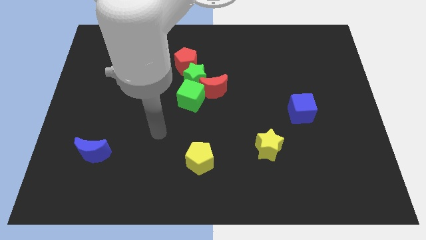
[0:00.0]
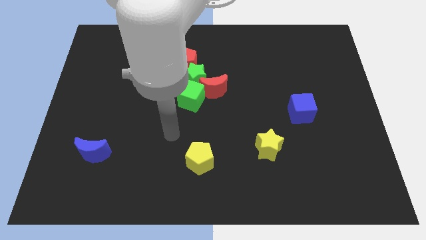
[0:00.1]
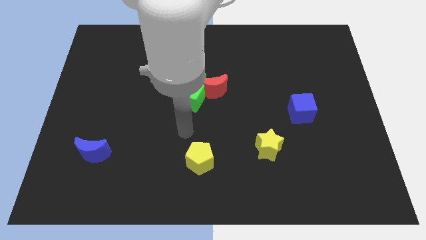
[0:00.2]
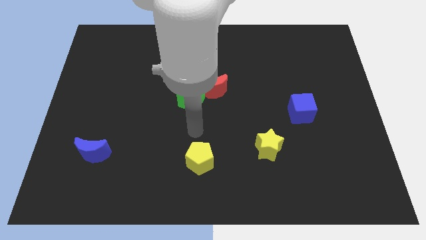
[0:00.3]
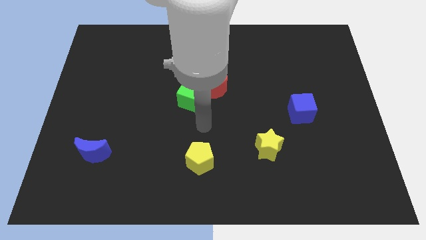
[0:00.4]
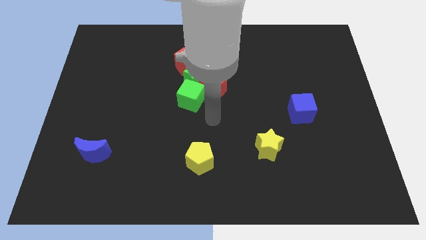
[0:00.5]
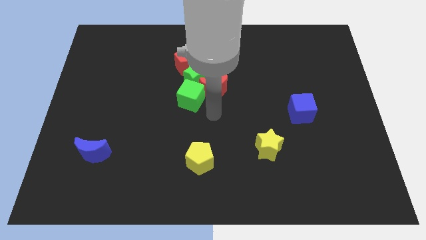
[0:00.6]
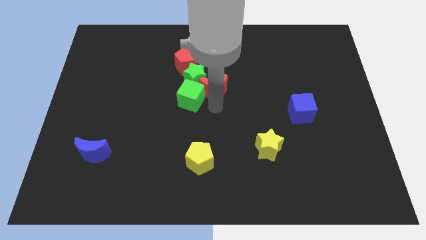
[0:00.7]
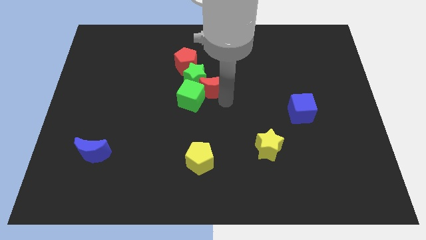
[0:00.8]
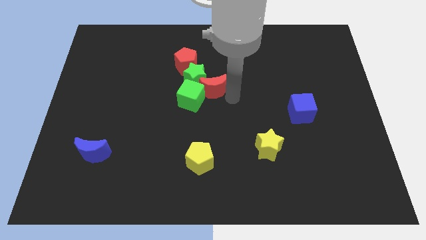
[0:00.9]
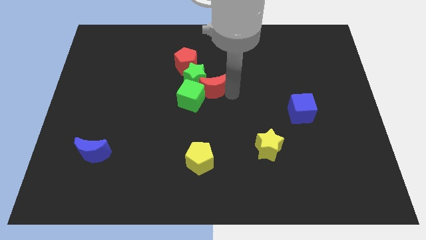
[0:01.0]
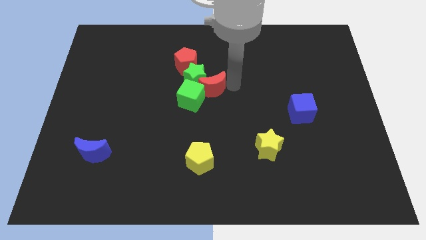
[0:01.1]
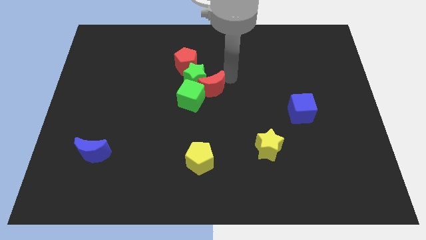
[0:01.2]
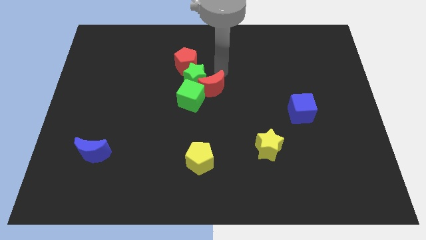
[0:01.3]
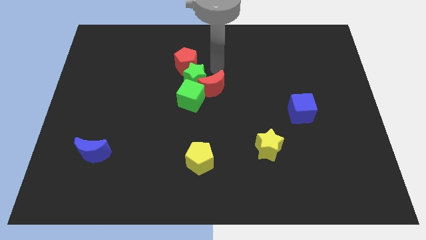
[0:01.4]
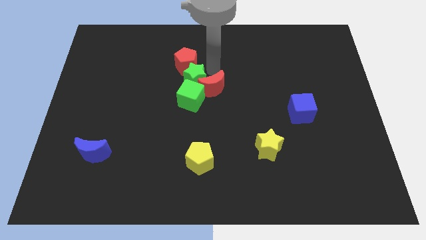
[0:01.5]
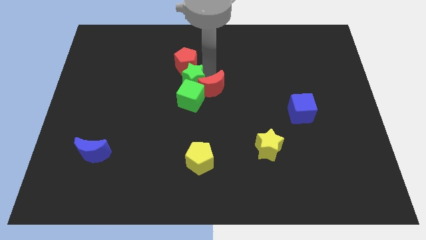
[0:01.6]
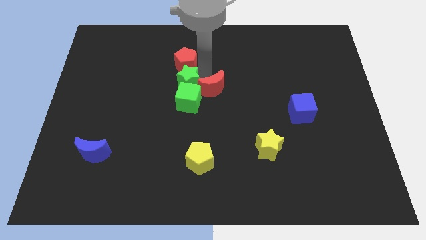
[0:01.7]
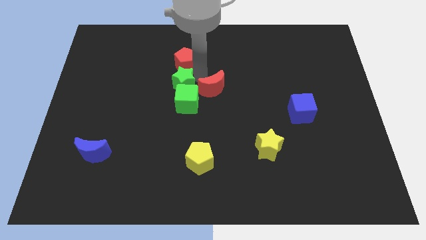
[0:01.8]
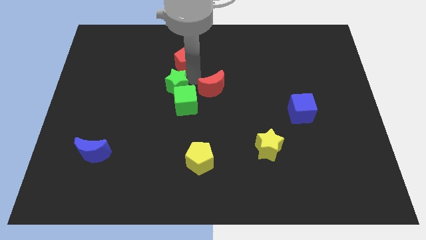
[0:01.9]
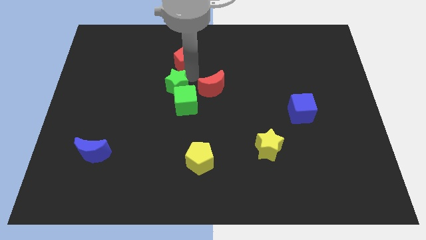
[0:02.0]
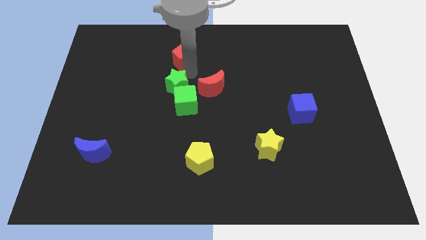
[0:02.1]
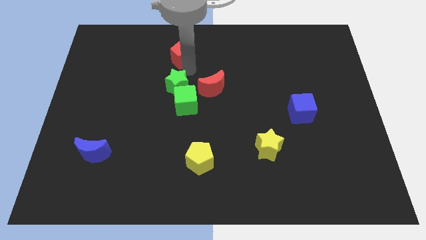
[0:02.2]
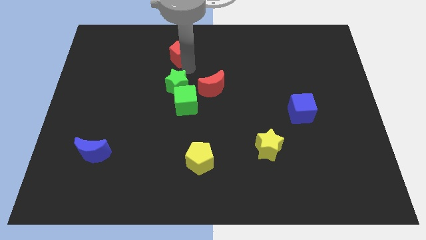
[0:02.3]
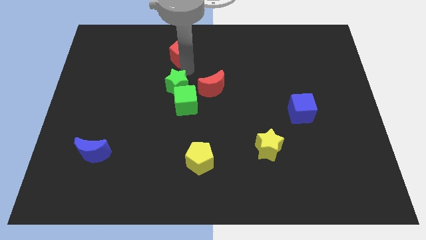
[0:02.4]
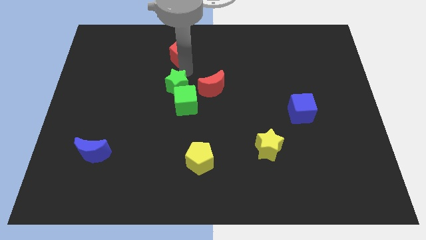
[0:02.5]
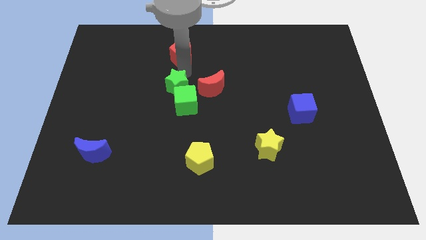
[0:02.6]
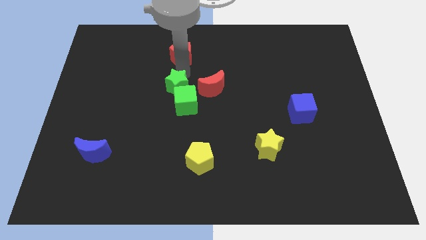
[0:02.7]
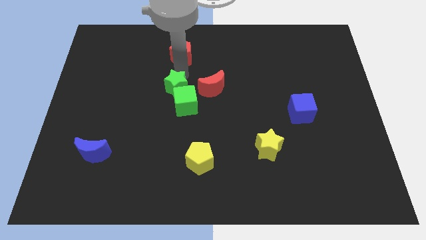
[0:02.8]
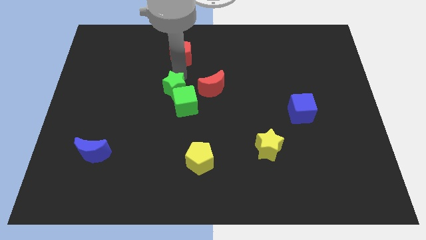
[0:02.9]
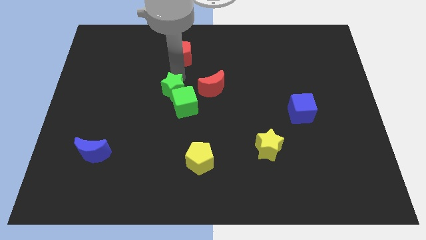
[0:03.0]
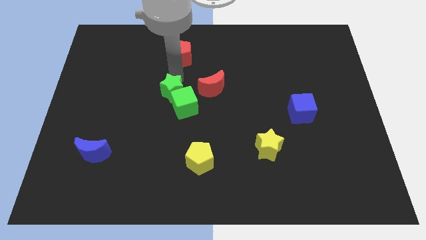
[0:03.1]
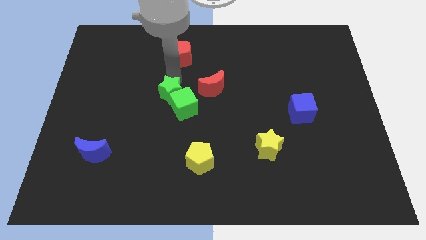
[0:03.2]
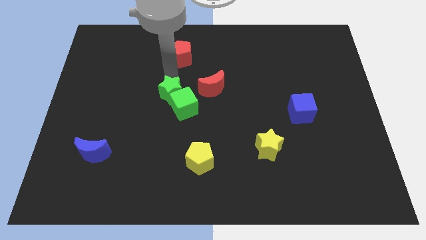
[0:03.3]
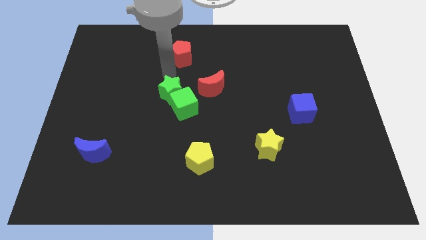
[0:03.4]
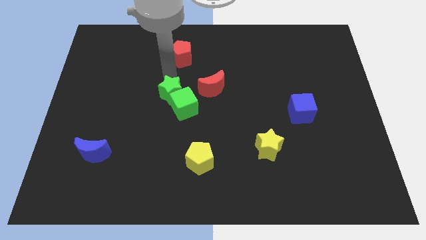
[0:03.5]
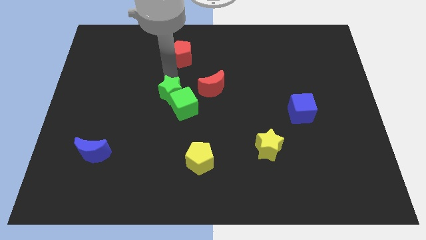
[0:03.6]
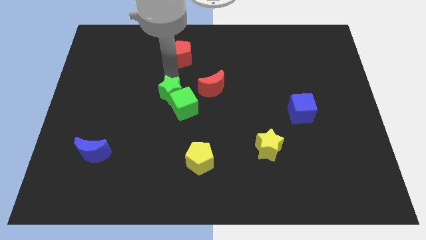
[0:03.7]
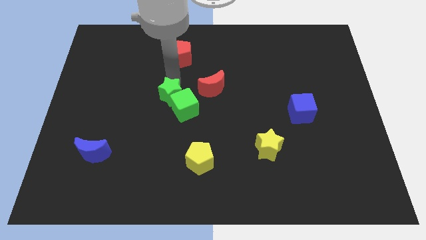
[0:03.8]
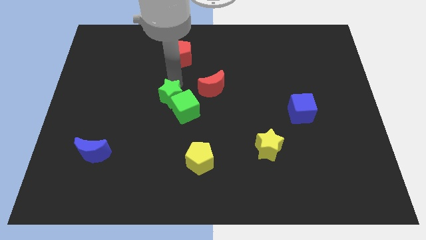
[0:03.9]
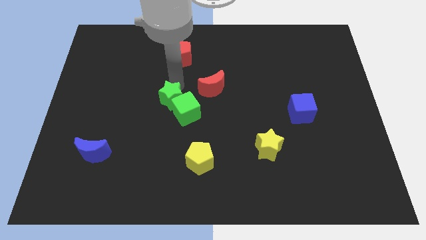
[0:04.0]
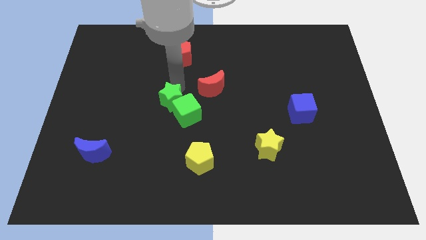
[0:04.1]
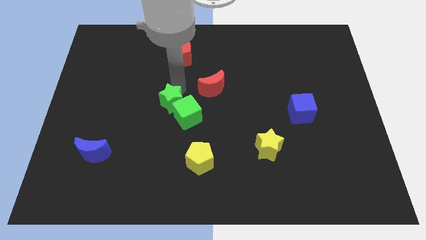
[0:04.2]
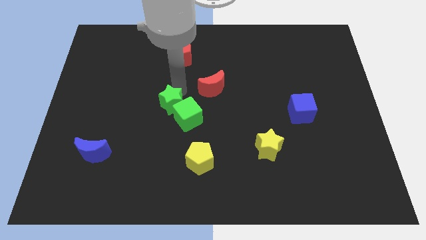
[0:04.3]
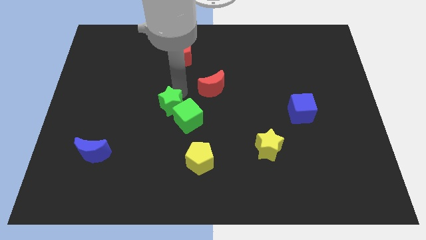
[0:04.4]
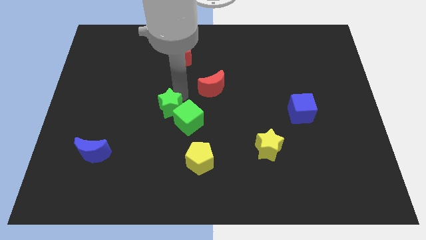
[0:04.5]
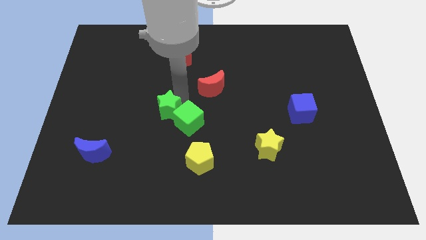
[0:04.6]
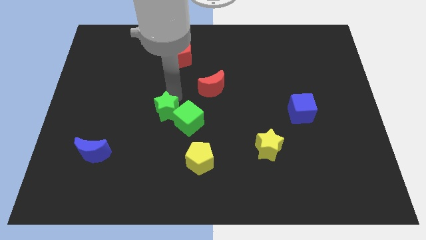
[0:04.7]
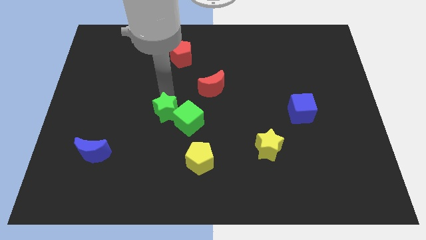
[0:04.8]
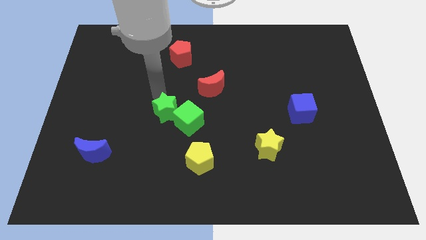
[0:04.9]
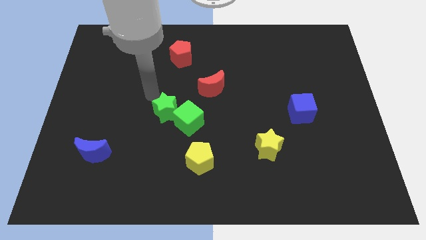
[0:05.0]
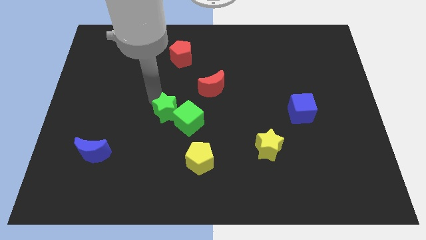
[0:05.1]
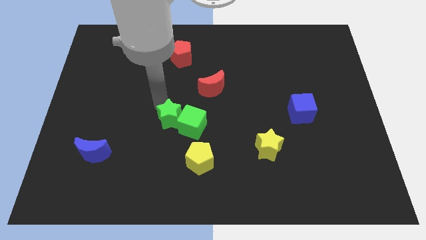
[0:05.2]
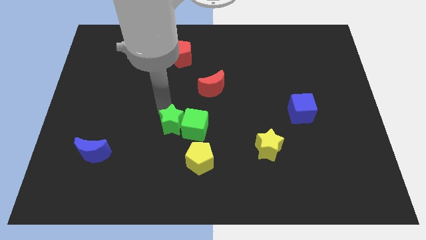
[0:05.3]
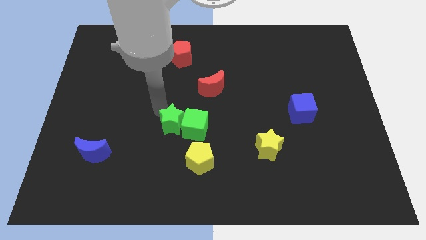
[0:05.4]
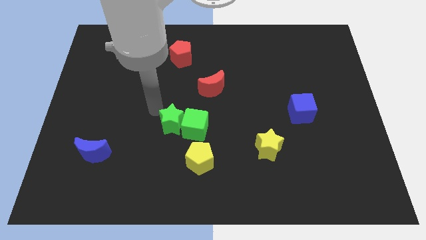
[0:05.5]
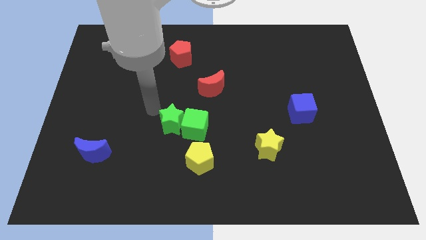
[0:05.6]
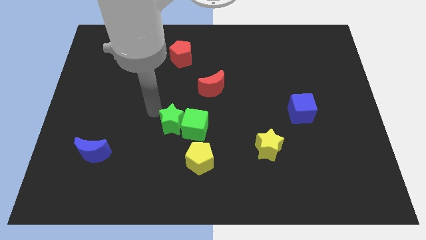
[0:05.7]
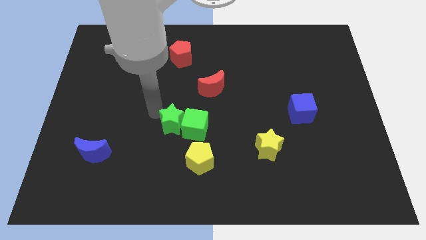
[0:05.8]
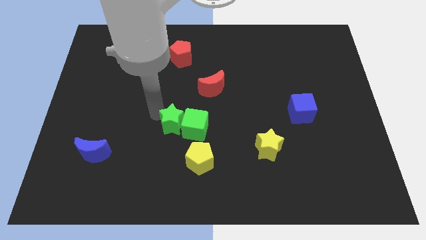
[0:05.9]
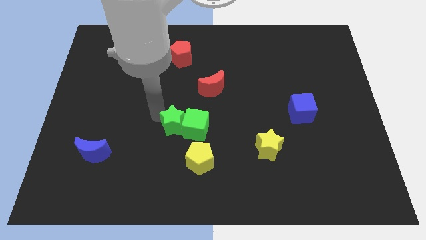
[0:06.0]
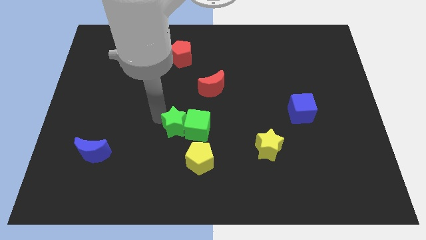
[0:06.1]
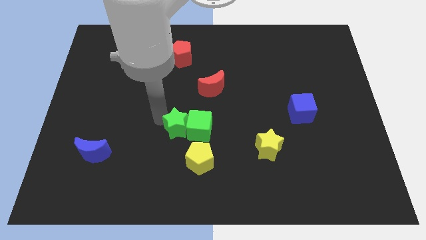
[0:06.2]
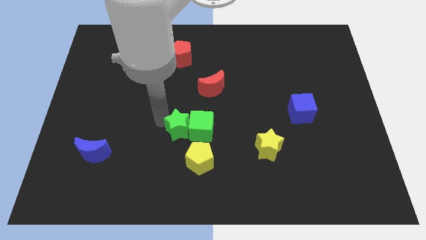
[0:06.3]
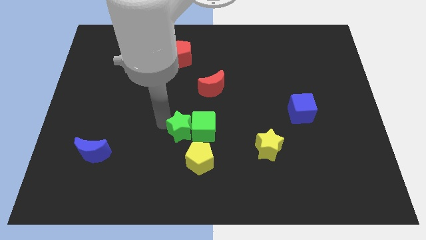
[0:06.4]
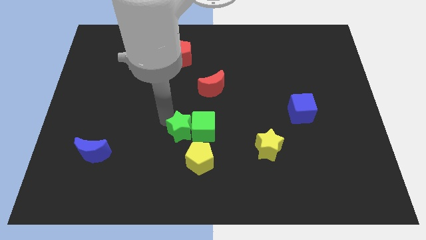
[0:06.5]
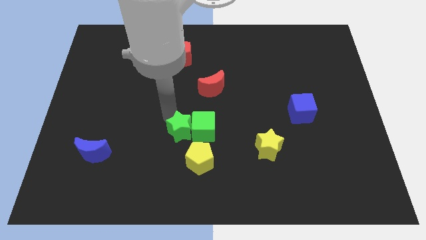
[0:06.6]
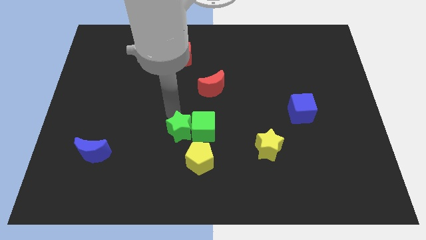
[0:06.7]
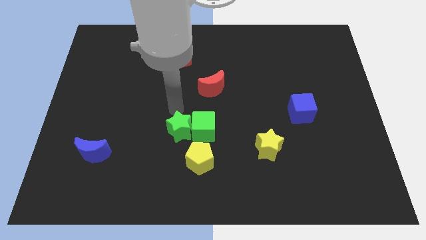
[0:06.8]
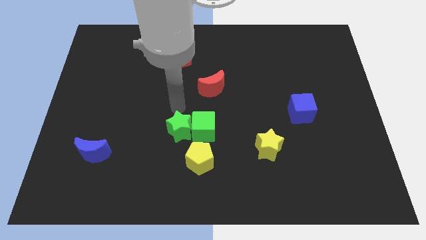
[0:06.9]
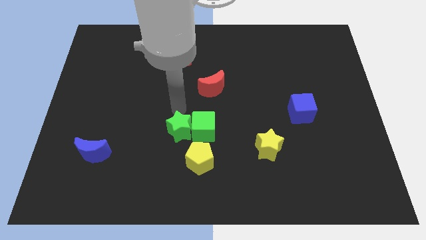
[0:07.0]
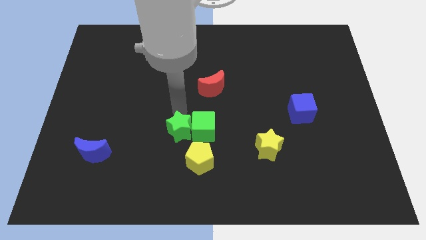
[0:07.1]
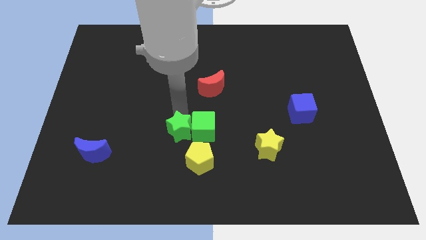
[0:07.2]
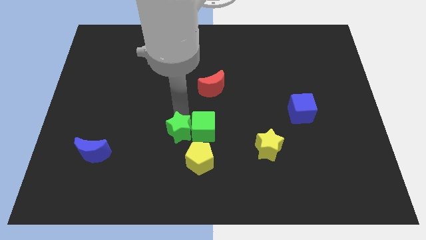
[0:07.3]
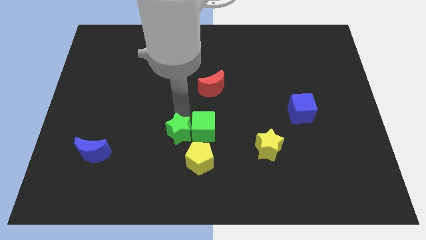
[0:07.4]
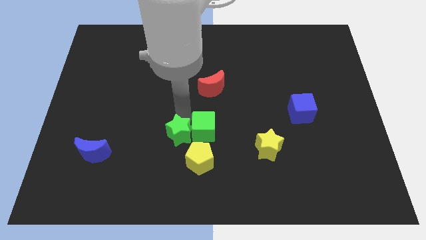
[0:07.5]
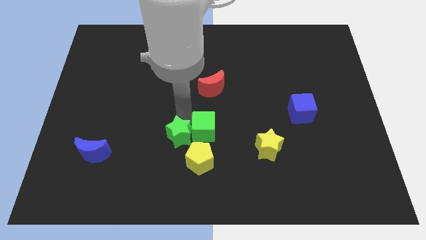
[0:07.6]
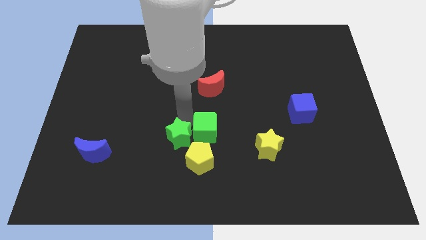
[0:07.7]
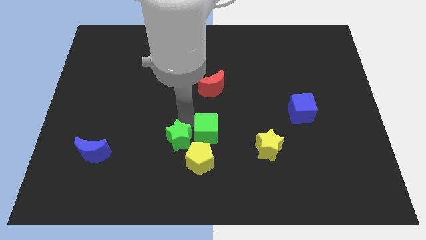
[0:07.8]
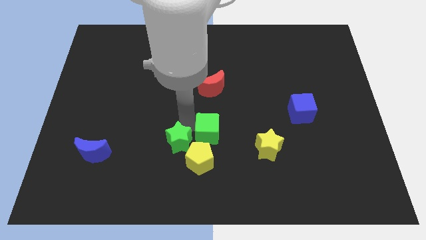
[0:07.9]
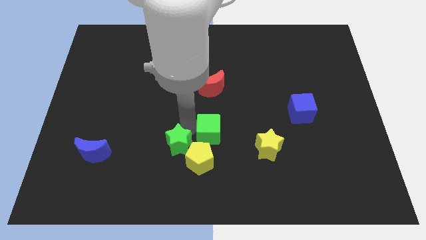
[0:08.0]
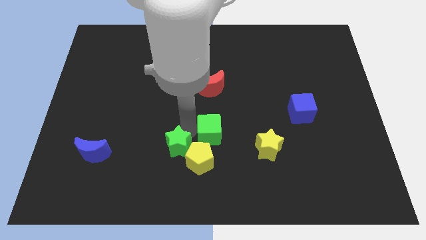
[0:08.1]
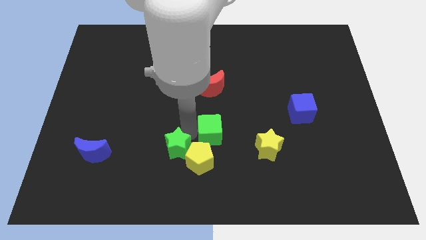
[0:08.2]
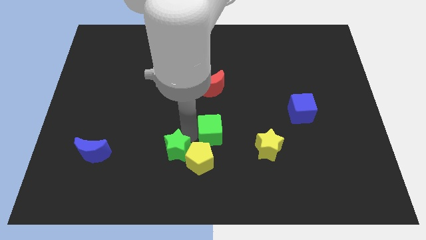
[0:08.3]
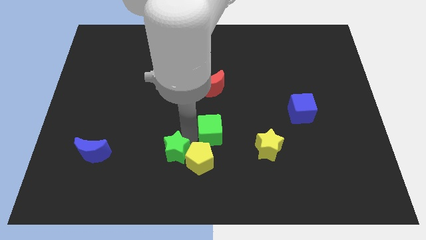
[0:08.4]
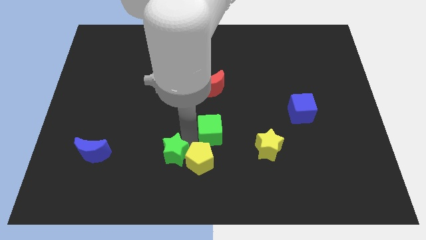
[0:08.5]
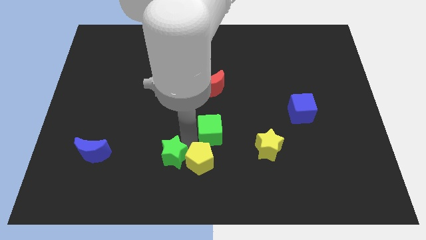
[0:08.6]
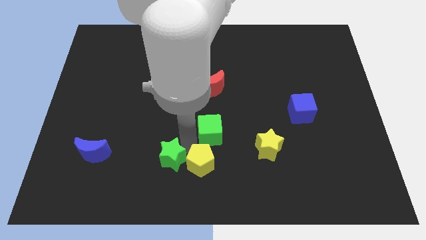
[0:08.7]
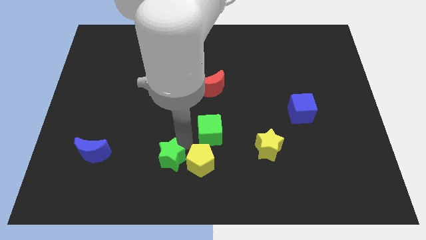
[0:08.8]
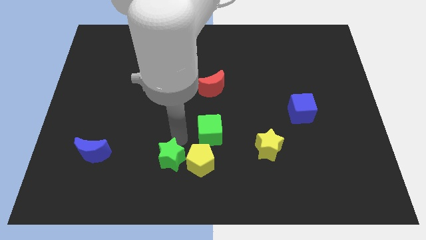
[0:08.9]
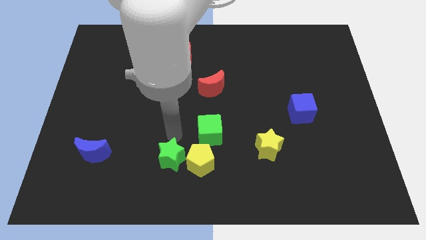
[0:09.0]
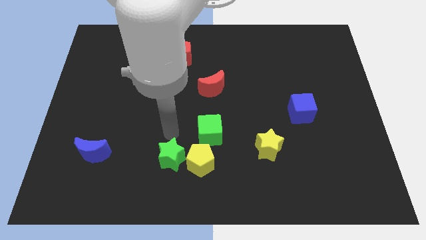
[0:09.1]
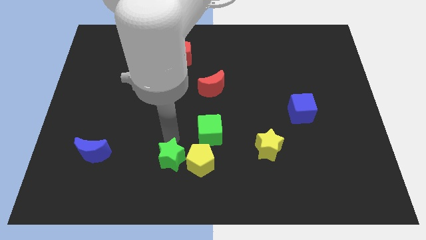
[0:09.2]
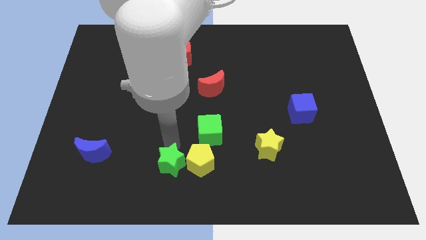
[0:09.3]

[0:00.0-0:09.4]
put the green star to the bottom side
